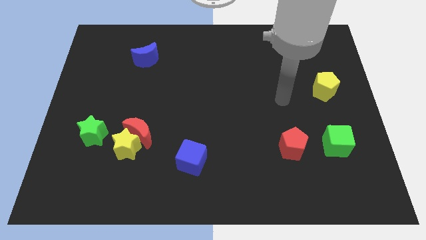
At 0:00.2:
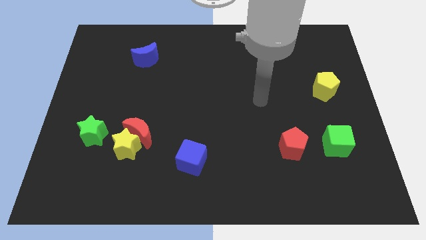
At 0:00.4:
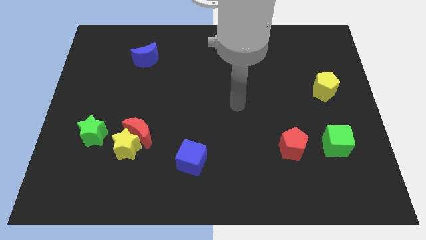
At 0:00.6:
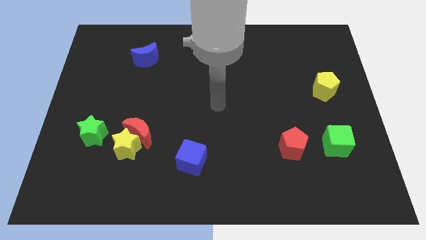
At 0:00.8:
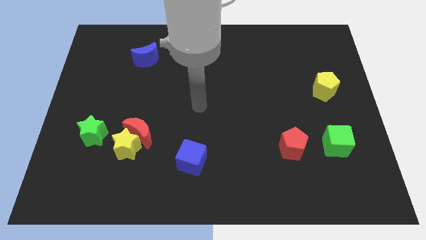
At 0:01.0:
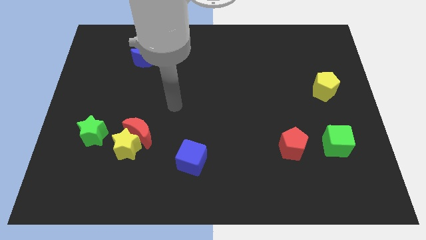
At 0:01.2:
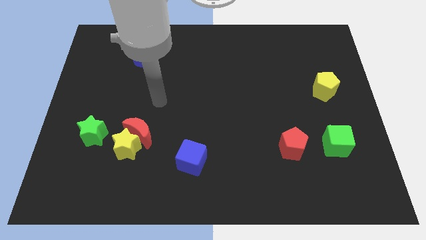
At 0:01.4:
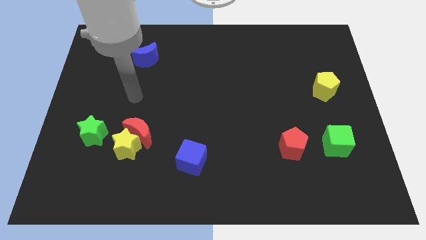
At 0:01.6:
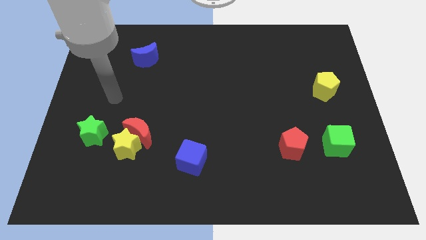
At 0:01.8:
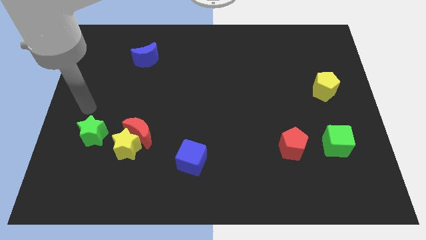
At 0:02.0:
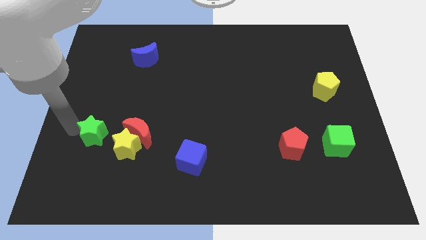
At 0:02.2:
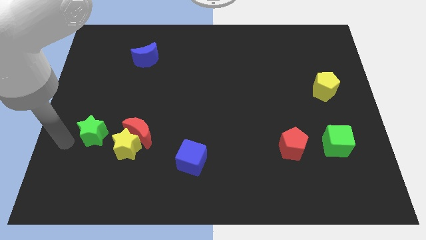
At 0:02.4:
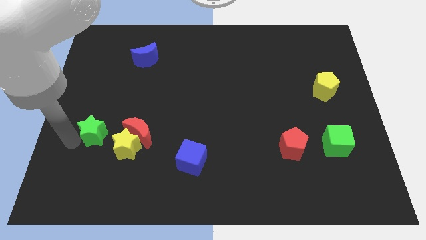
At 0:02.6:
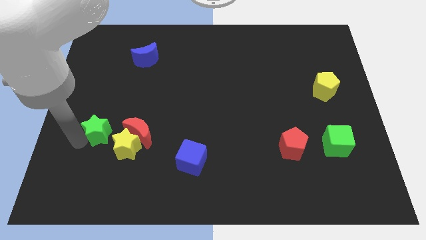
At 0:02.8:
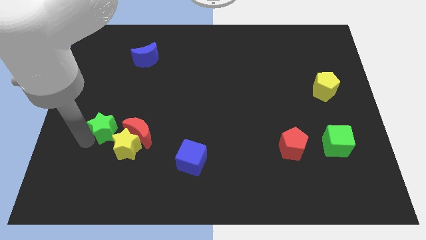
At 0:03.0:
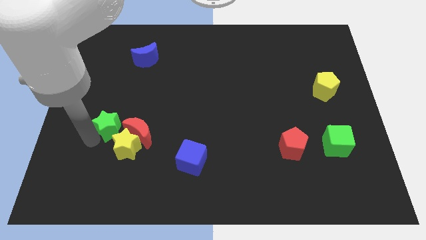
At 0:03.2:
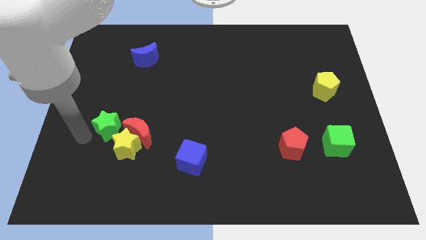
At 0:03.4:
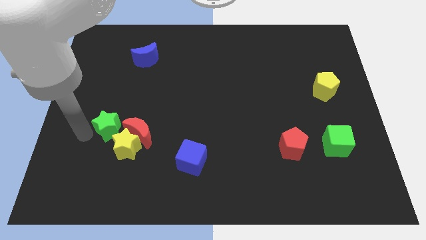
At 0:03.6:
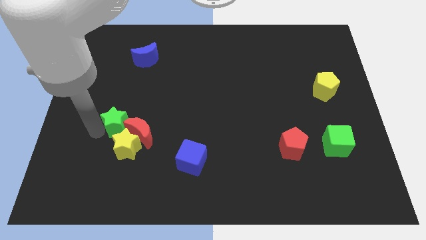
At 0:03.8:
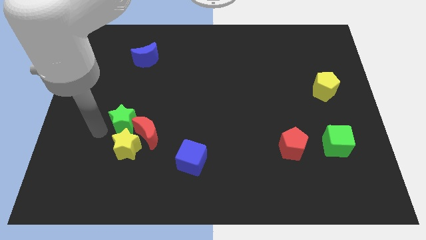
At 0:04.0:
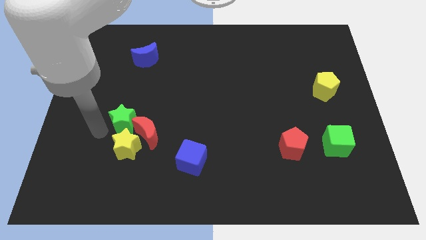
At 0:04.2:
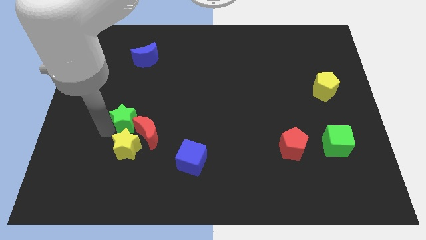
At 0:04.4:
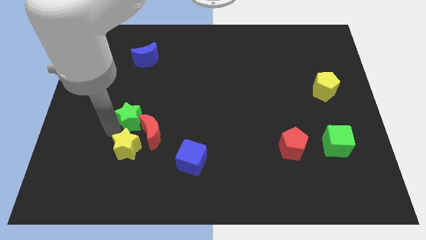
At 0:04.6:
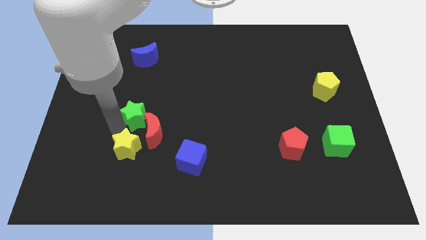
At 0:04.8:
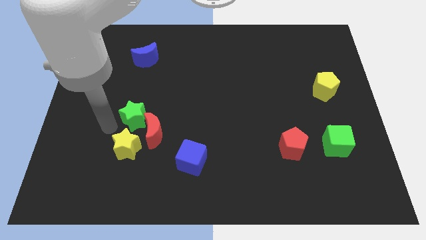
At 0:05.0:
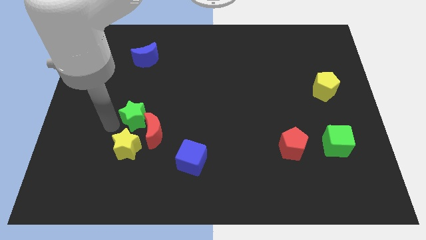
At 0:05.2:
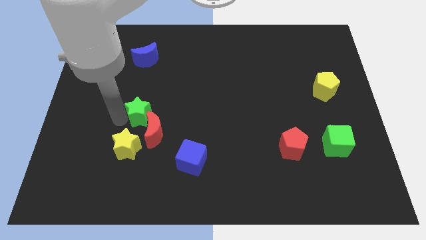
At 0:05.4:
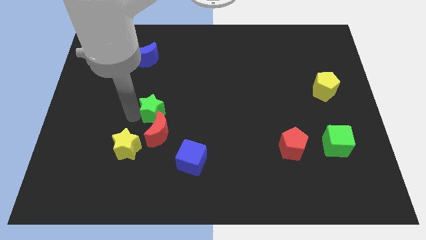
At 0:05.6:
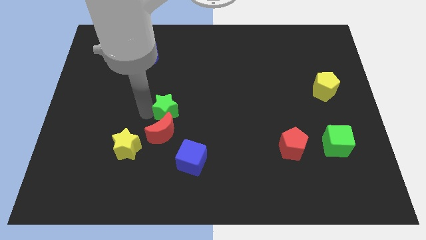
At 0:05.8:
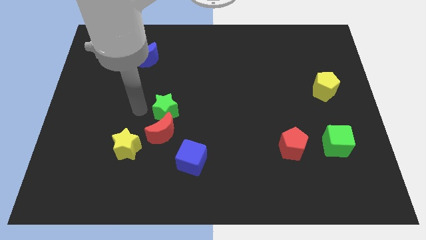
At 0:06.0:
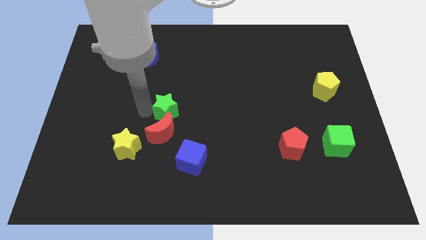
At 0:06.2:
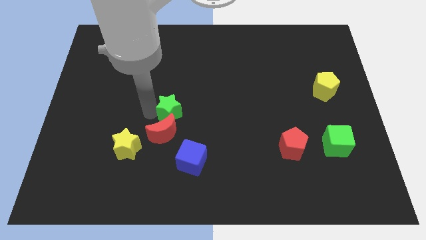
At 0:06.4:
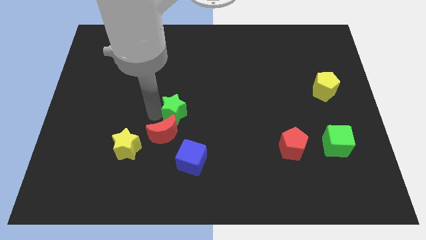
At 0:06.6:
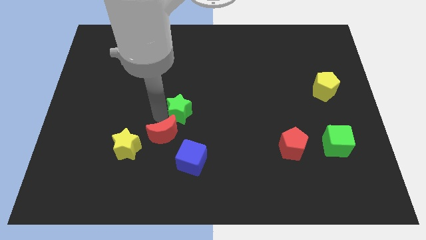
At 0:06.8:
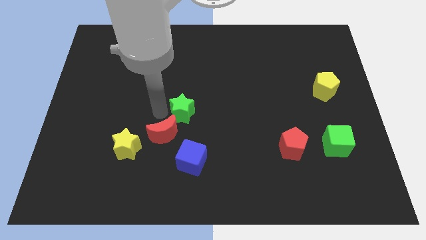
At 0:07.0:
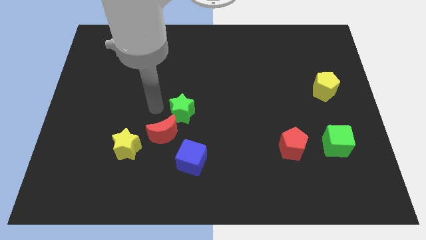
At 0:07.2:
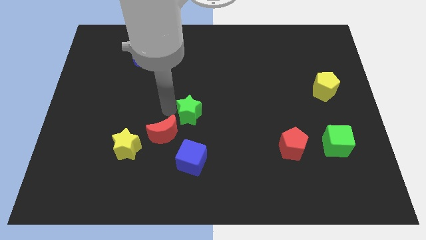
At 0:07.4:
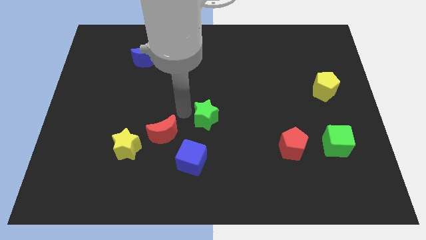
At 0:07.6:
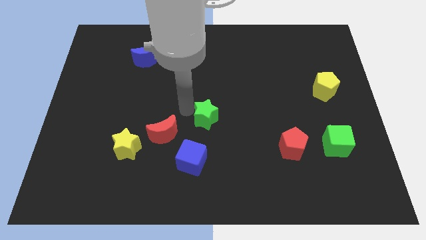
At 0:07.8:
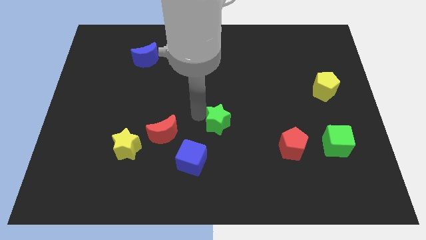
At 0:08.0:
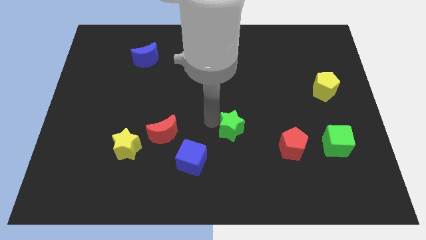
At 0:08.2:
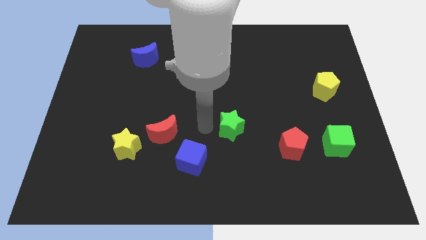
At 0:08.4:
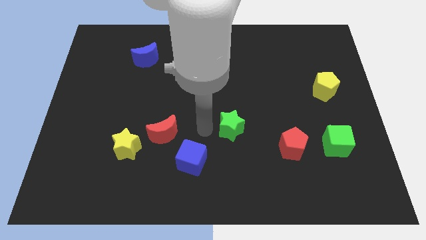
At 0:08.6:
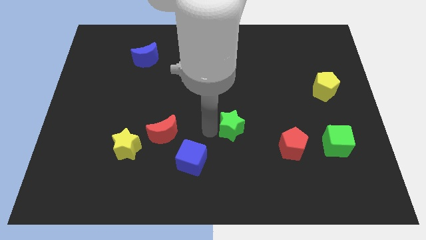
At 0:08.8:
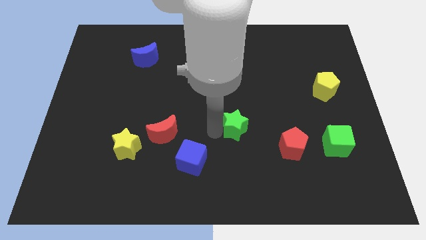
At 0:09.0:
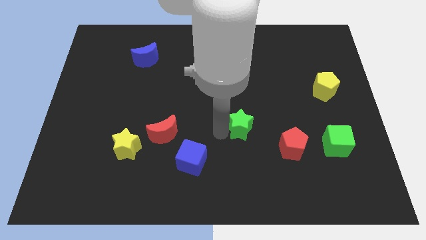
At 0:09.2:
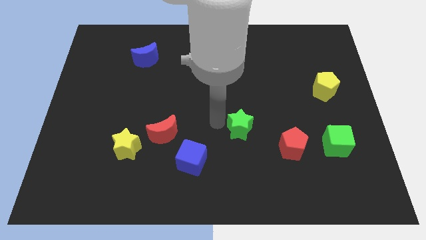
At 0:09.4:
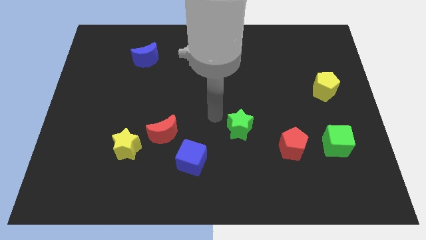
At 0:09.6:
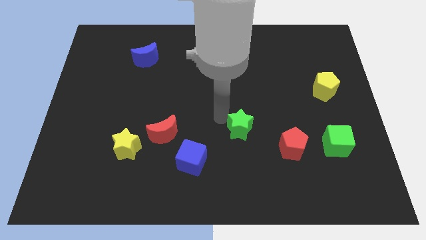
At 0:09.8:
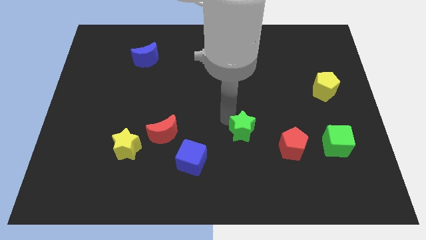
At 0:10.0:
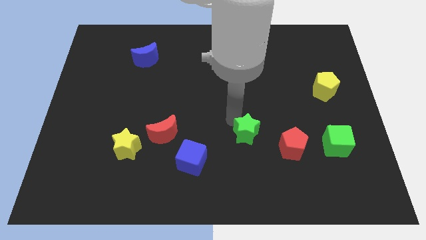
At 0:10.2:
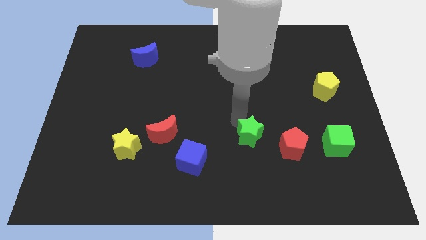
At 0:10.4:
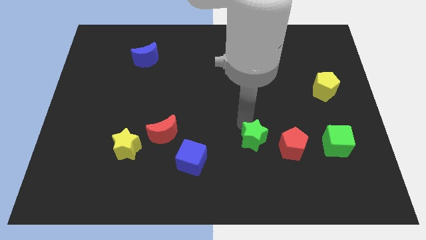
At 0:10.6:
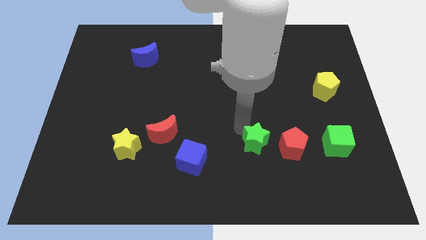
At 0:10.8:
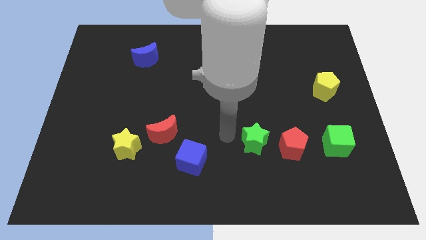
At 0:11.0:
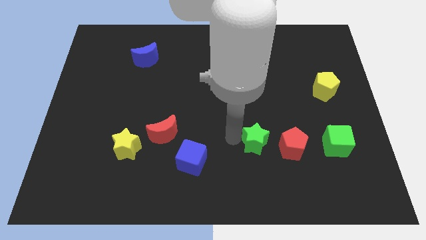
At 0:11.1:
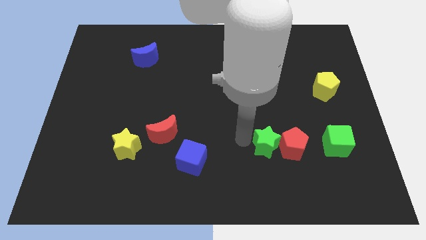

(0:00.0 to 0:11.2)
put the green star close to the red pentagon

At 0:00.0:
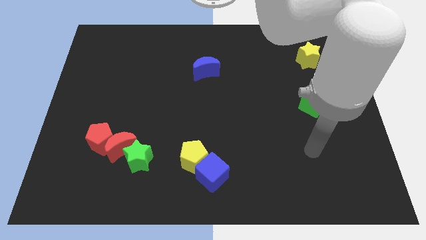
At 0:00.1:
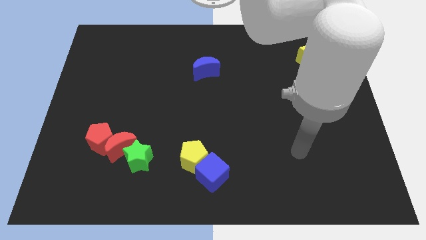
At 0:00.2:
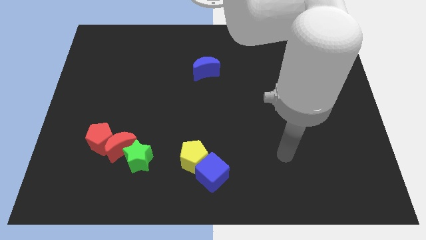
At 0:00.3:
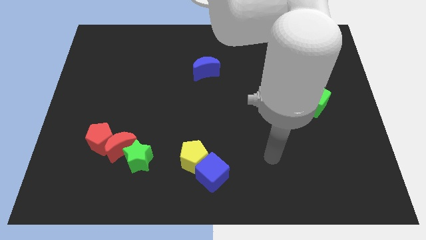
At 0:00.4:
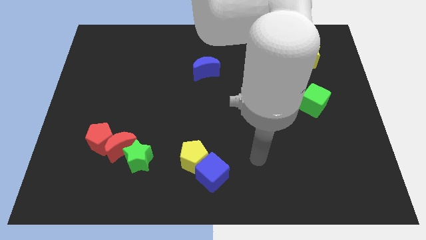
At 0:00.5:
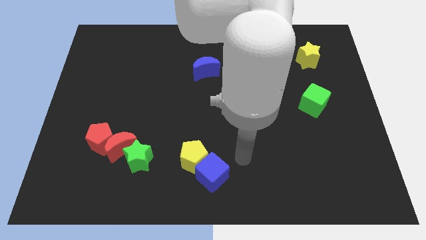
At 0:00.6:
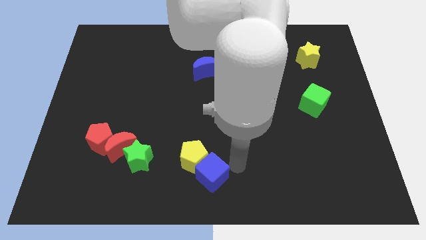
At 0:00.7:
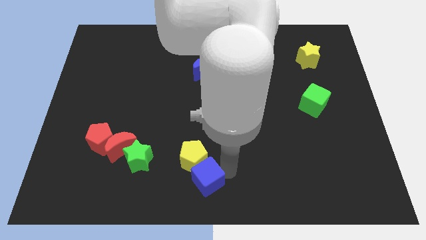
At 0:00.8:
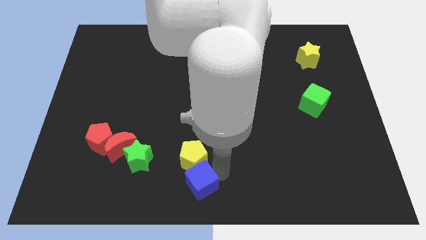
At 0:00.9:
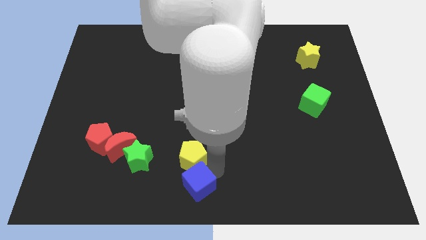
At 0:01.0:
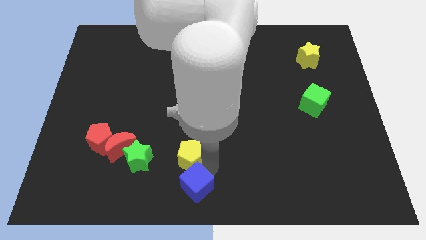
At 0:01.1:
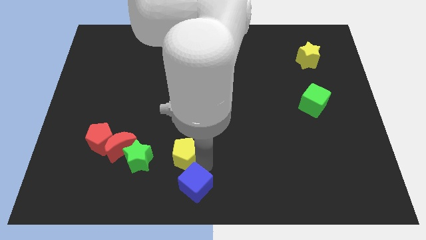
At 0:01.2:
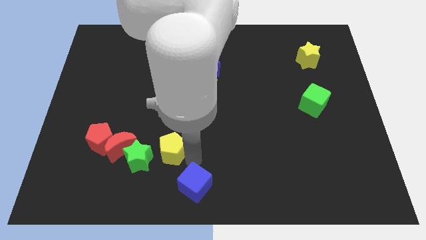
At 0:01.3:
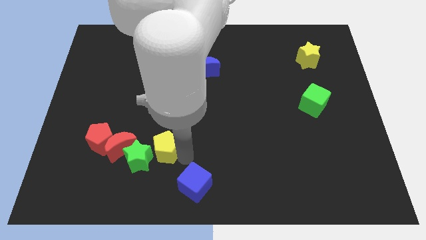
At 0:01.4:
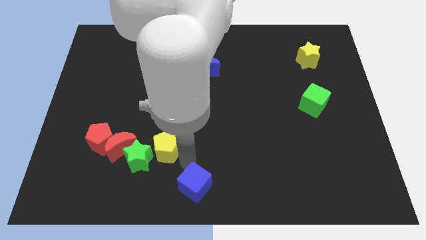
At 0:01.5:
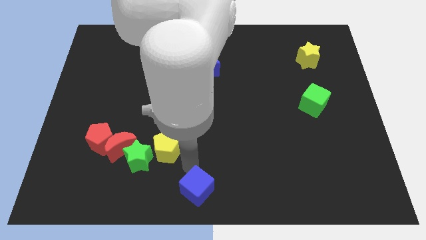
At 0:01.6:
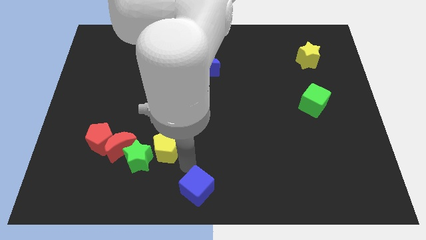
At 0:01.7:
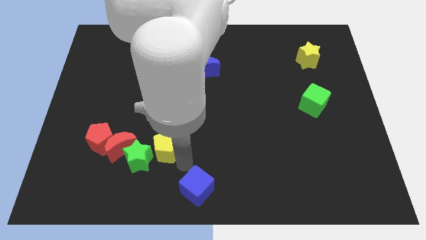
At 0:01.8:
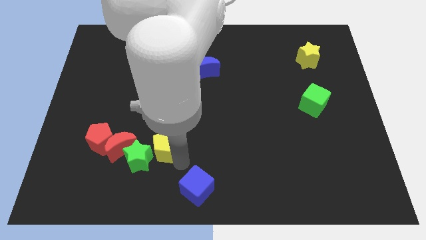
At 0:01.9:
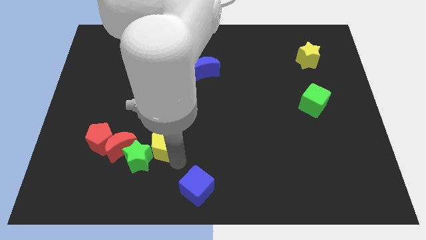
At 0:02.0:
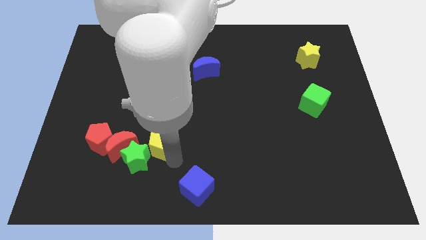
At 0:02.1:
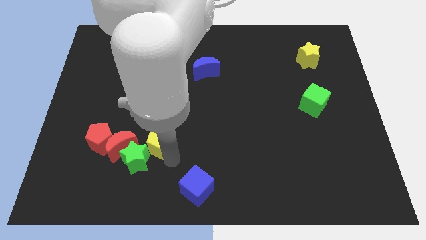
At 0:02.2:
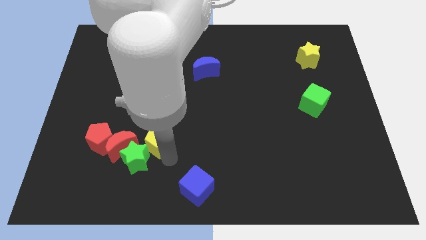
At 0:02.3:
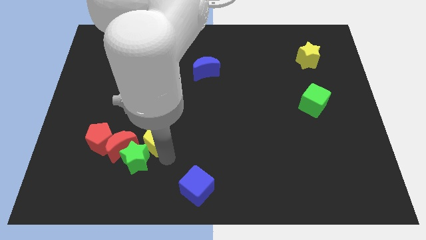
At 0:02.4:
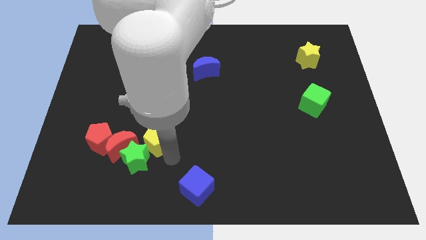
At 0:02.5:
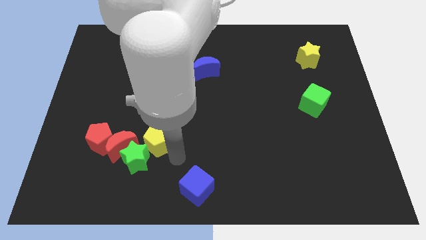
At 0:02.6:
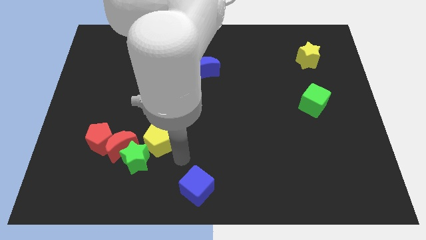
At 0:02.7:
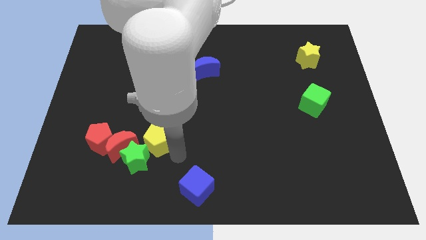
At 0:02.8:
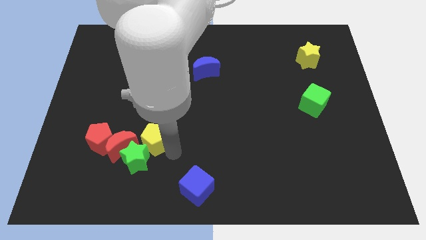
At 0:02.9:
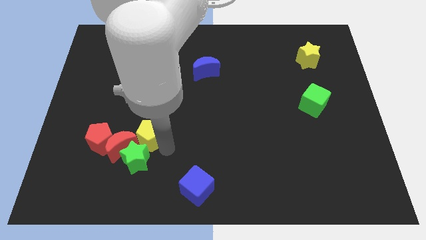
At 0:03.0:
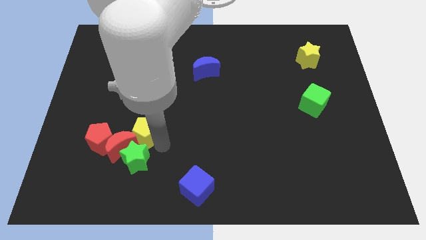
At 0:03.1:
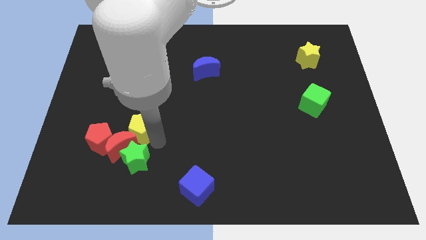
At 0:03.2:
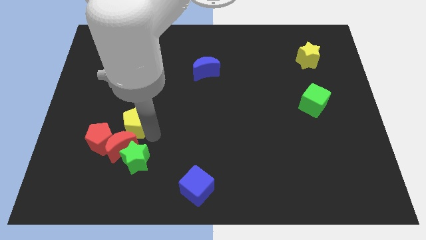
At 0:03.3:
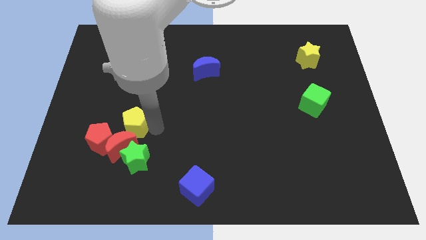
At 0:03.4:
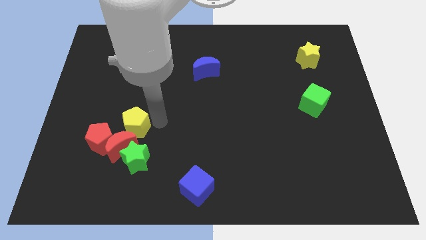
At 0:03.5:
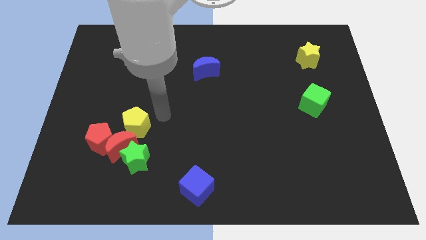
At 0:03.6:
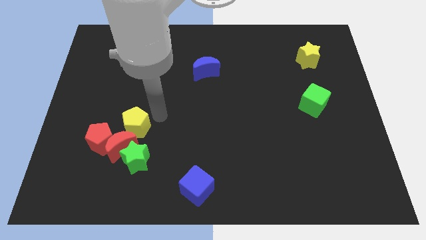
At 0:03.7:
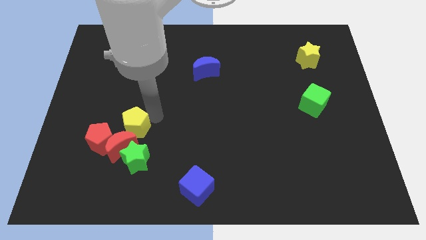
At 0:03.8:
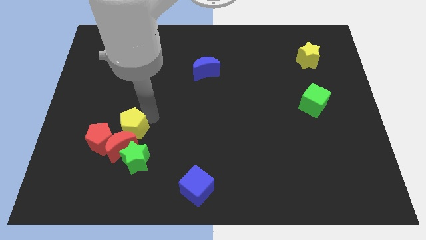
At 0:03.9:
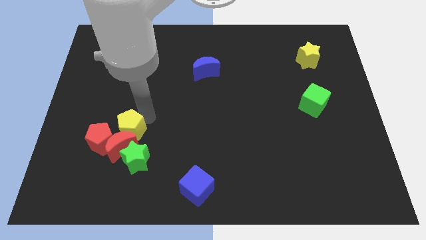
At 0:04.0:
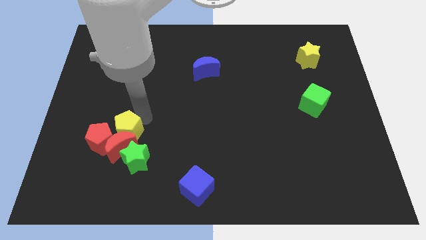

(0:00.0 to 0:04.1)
put the yellow pentagon next to the red pentagon
